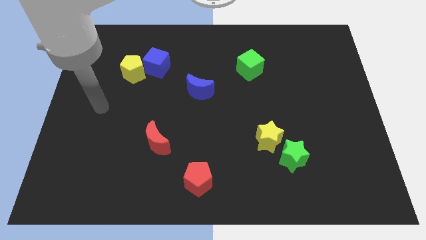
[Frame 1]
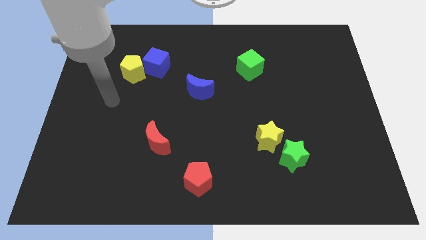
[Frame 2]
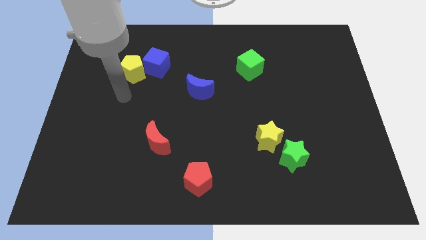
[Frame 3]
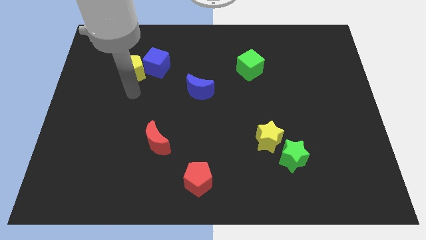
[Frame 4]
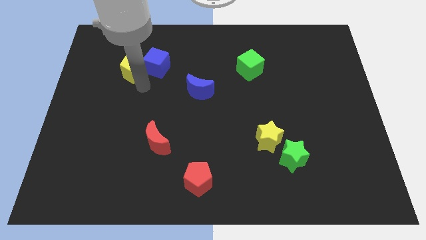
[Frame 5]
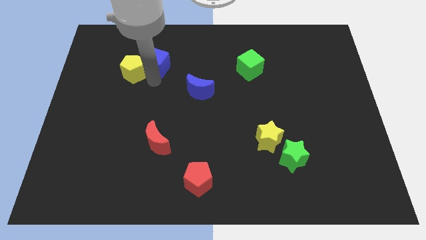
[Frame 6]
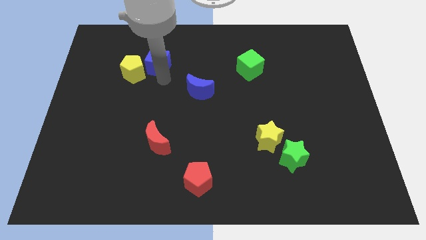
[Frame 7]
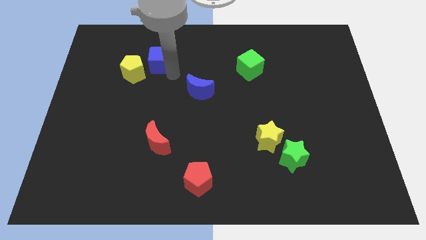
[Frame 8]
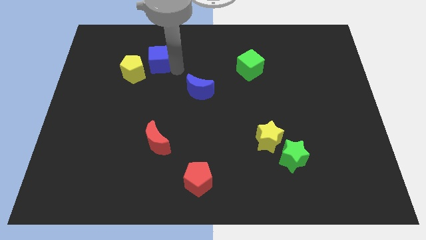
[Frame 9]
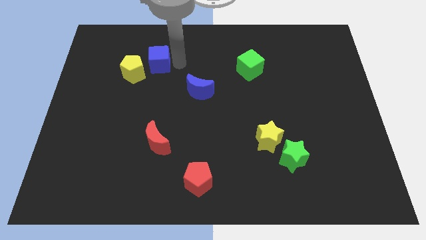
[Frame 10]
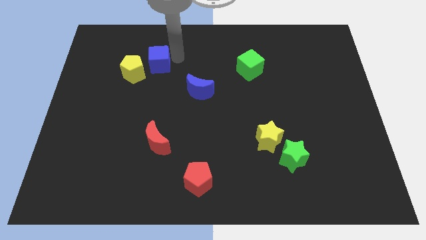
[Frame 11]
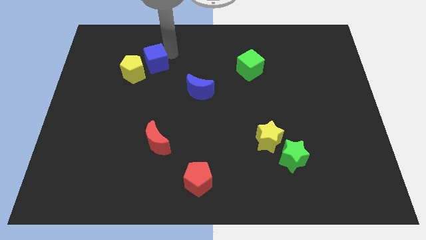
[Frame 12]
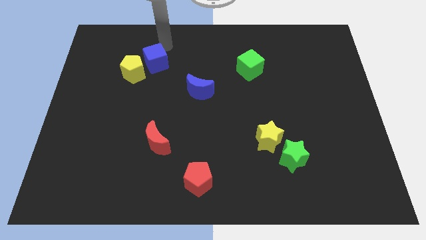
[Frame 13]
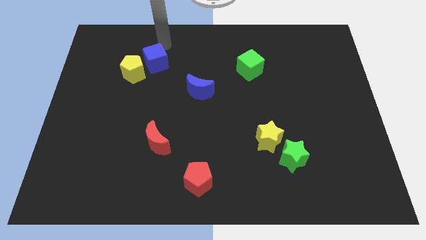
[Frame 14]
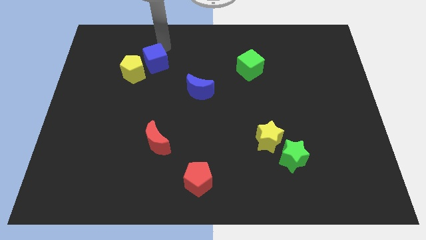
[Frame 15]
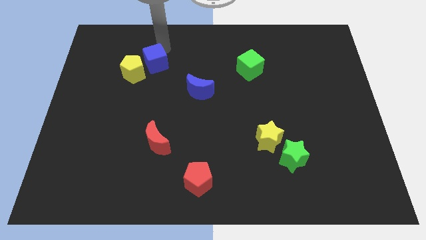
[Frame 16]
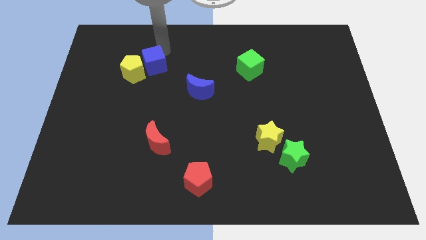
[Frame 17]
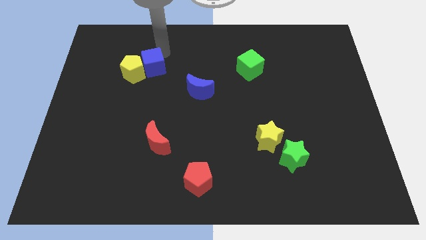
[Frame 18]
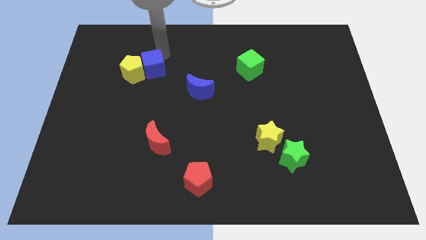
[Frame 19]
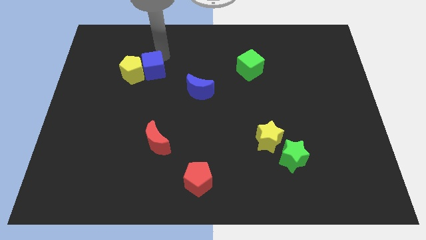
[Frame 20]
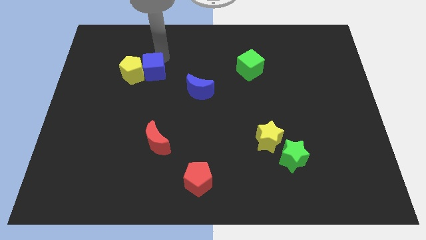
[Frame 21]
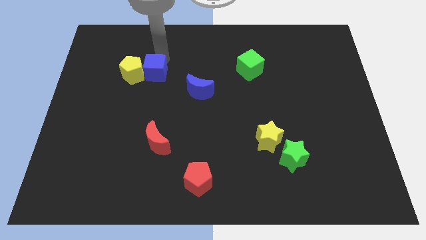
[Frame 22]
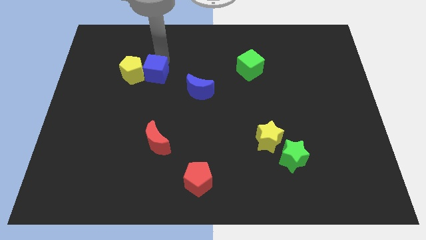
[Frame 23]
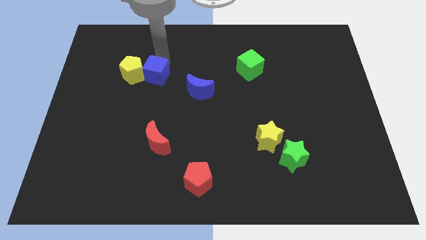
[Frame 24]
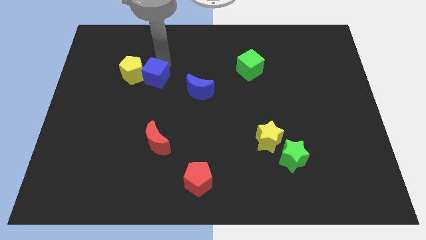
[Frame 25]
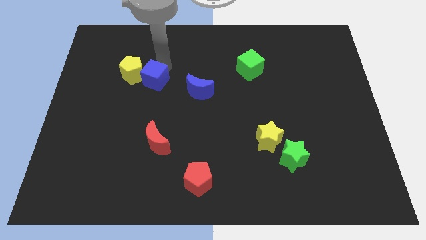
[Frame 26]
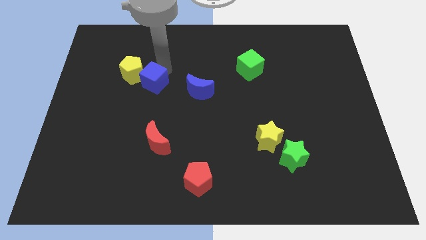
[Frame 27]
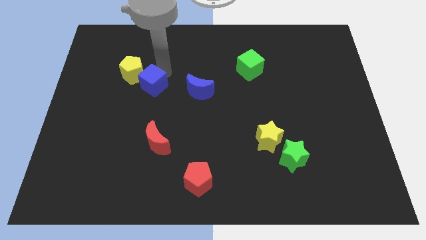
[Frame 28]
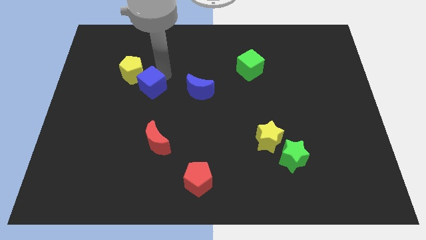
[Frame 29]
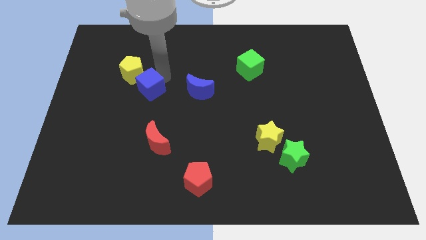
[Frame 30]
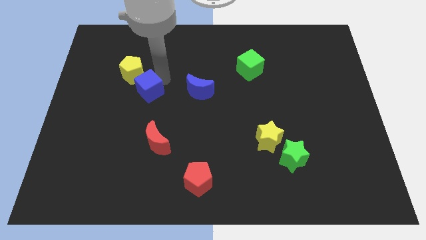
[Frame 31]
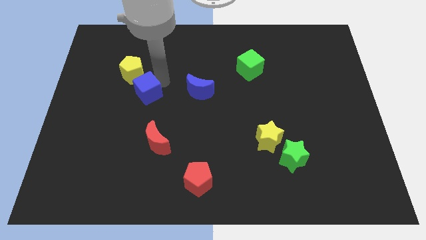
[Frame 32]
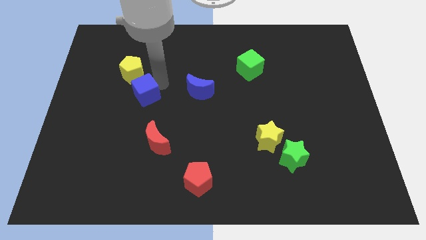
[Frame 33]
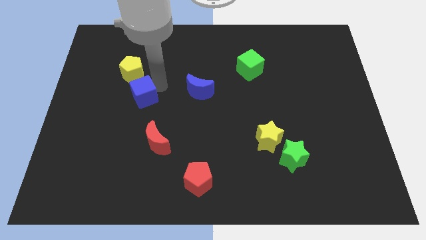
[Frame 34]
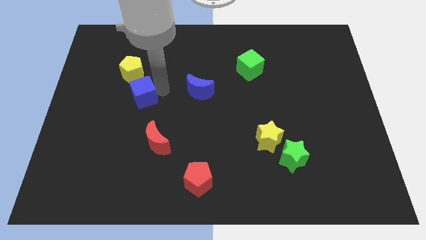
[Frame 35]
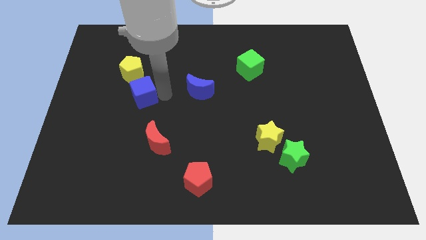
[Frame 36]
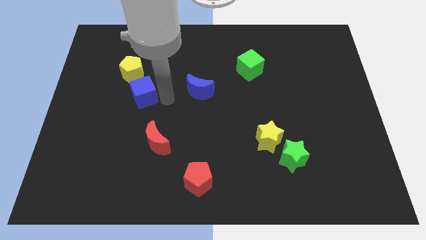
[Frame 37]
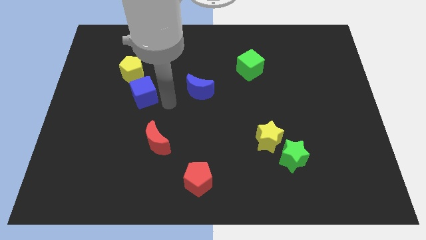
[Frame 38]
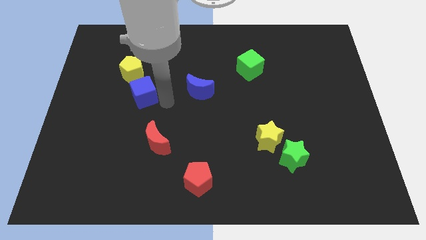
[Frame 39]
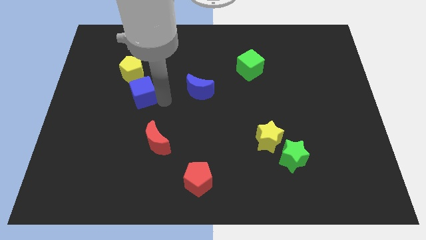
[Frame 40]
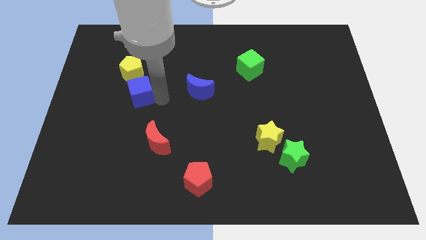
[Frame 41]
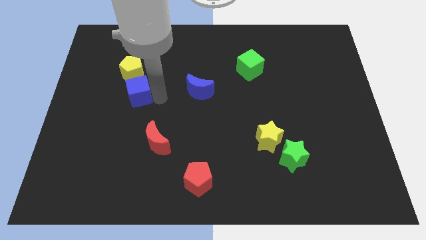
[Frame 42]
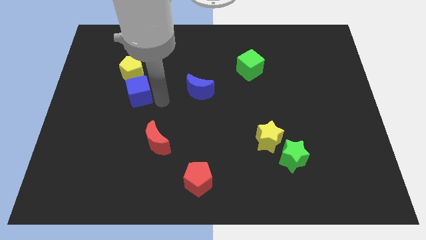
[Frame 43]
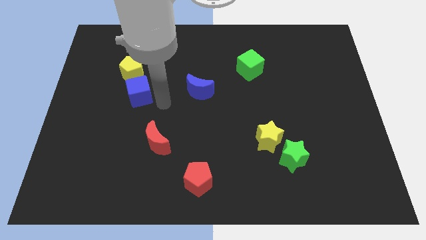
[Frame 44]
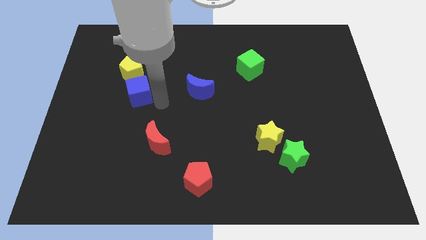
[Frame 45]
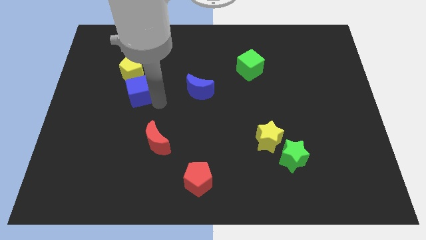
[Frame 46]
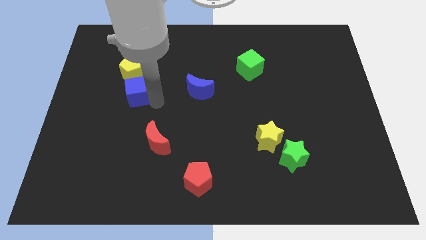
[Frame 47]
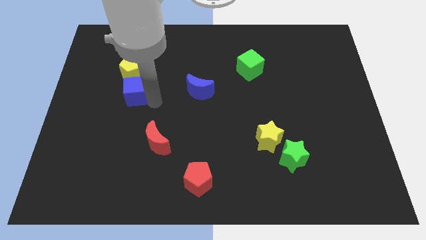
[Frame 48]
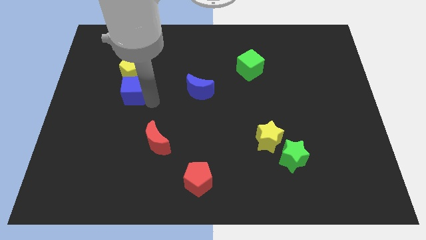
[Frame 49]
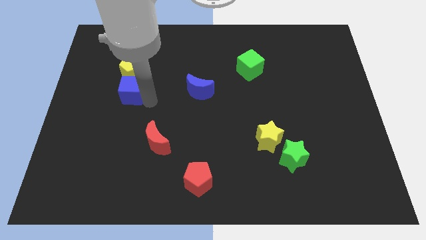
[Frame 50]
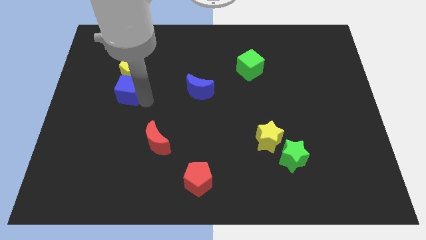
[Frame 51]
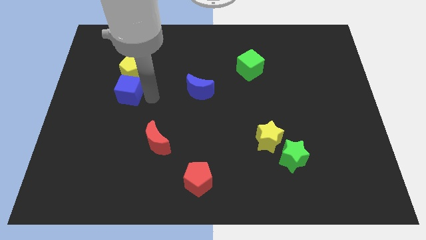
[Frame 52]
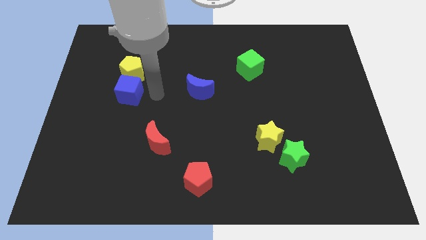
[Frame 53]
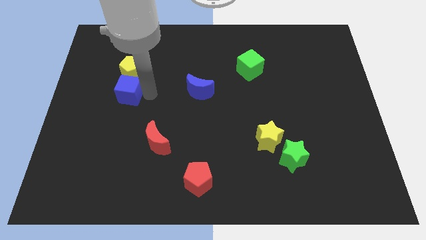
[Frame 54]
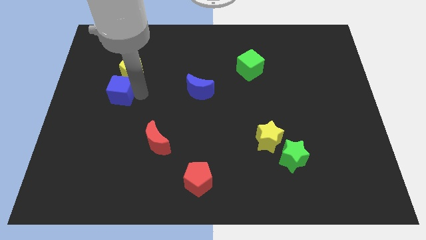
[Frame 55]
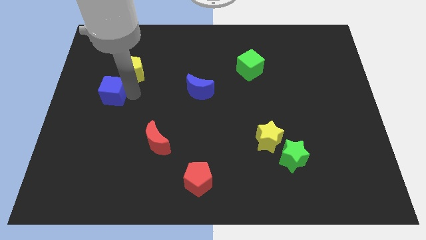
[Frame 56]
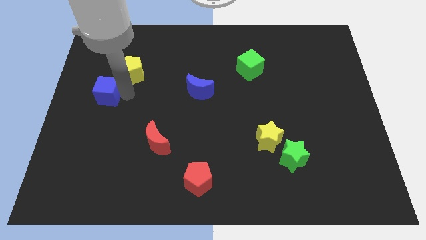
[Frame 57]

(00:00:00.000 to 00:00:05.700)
put the blue cube to the center left

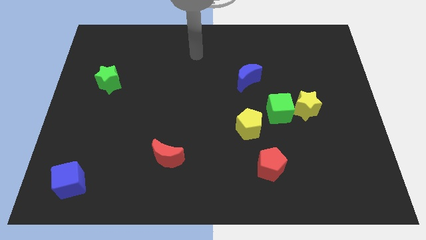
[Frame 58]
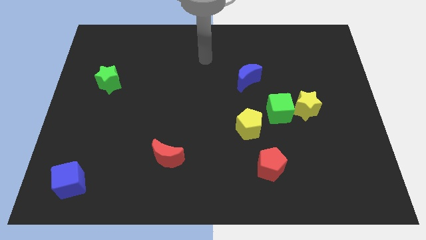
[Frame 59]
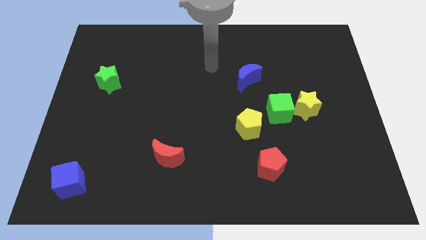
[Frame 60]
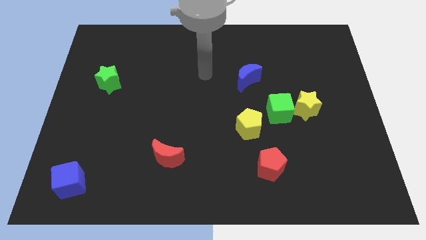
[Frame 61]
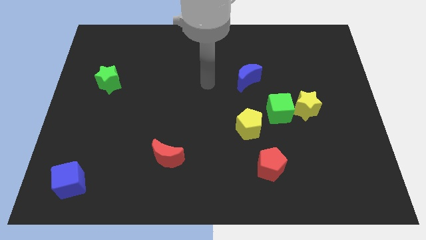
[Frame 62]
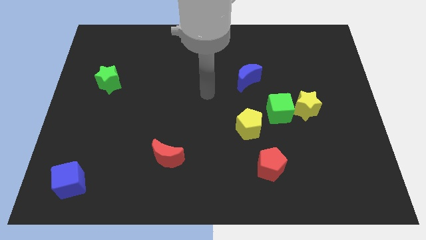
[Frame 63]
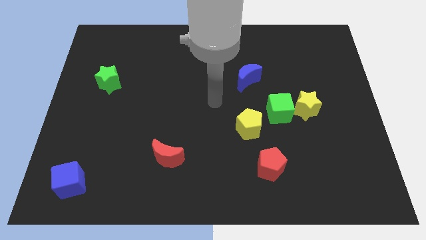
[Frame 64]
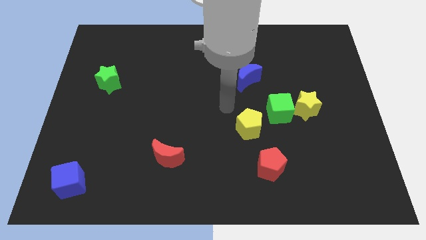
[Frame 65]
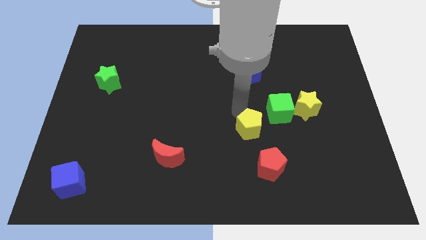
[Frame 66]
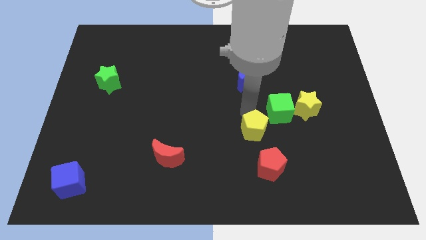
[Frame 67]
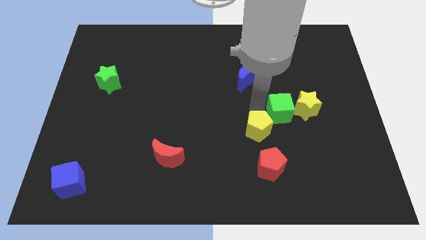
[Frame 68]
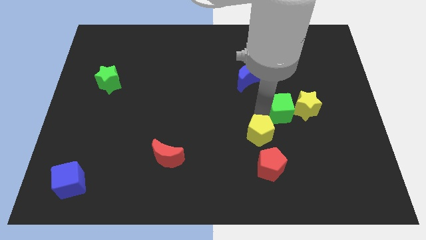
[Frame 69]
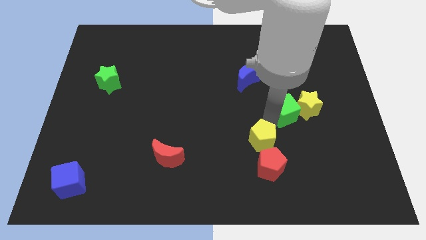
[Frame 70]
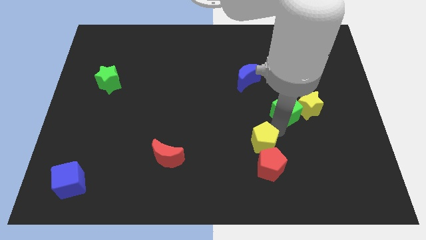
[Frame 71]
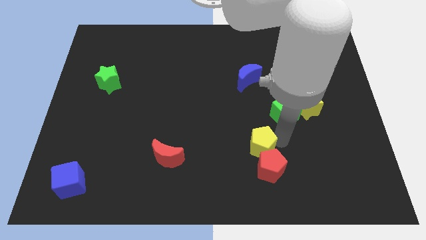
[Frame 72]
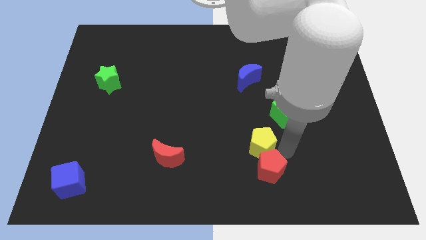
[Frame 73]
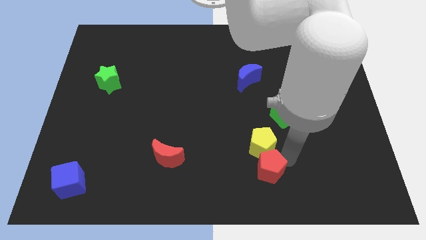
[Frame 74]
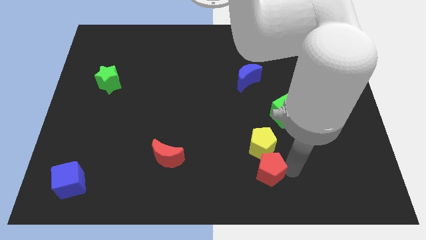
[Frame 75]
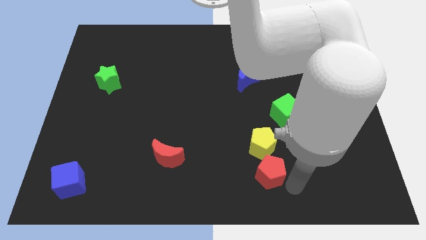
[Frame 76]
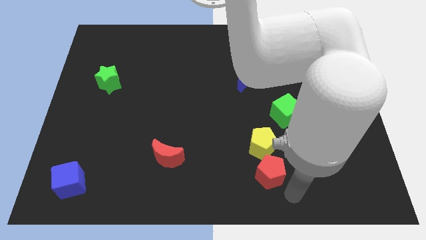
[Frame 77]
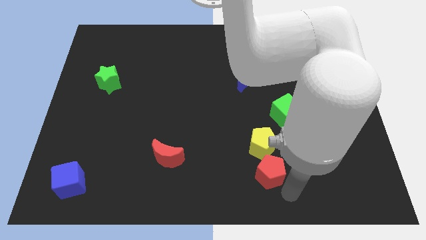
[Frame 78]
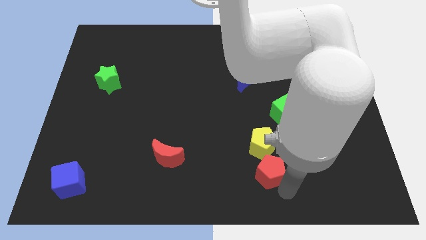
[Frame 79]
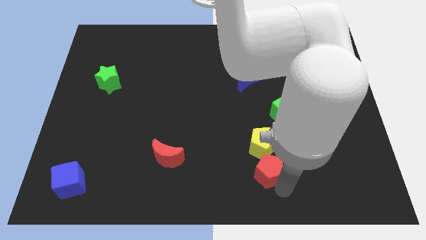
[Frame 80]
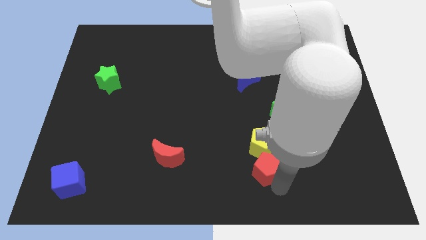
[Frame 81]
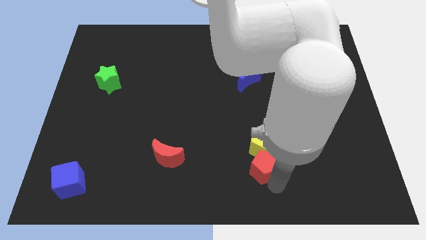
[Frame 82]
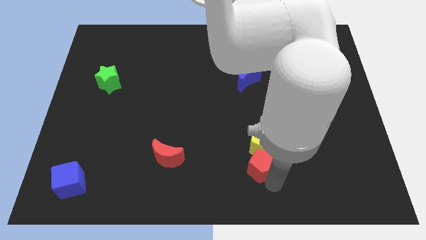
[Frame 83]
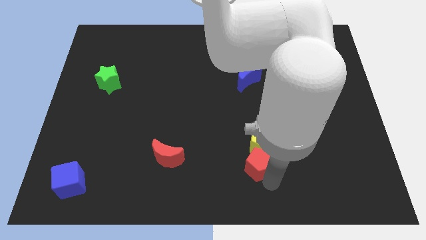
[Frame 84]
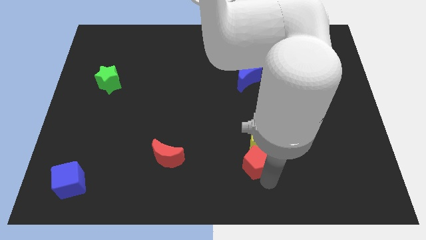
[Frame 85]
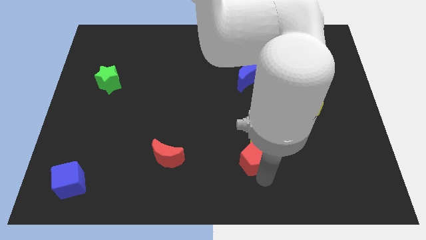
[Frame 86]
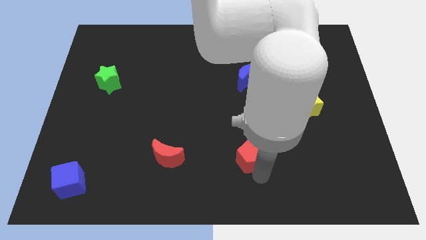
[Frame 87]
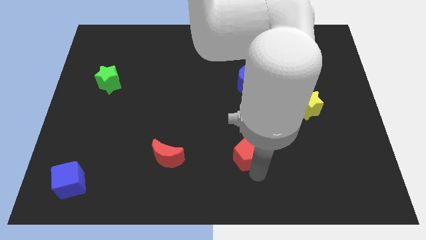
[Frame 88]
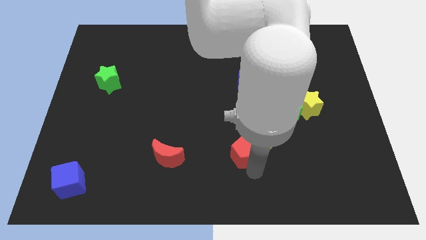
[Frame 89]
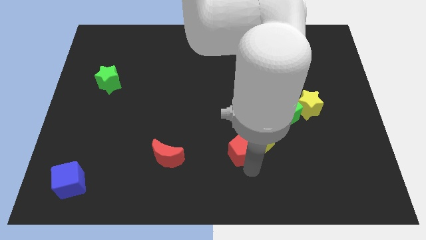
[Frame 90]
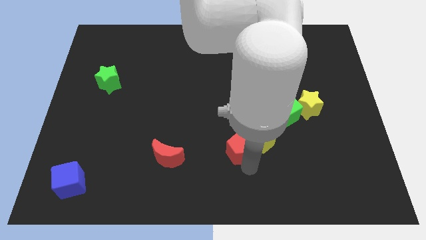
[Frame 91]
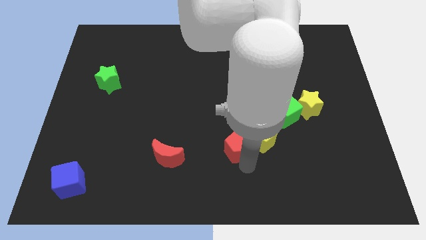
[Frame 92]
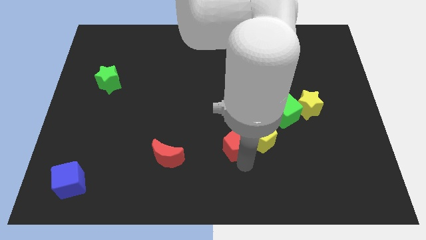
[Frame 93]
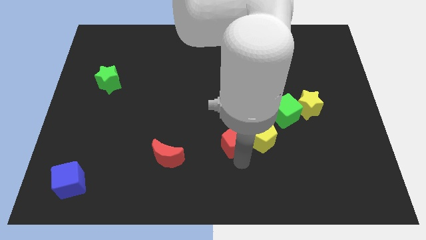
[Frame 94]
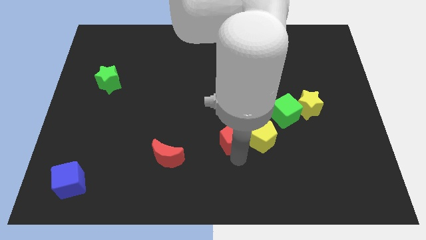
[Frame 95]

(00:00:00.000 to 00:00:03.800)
slide the red pentagon to the middle of the board
